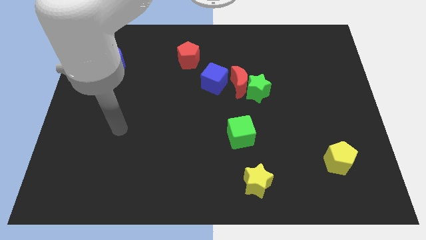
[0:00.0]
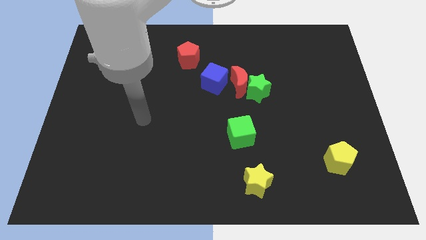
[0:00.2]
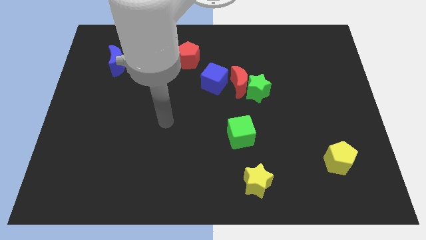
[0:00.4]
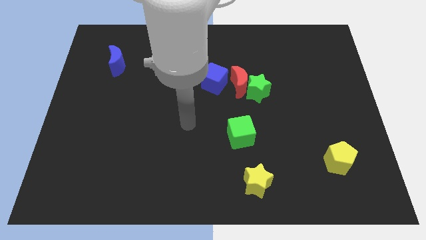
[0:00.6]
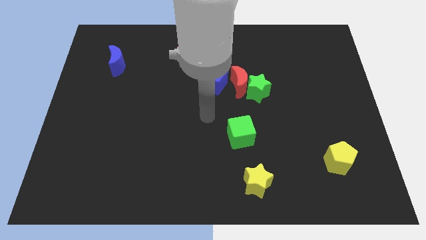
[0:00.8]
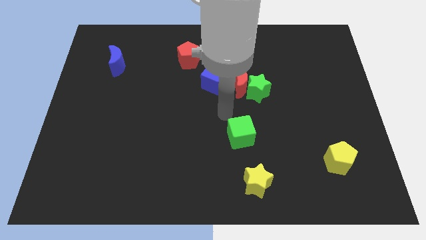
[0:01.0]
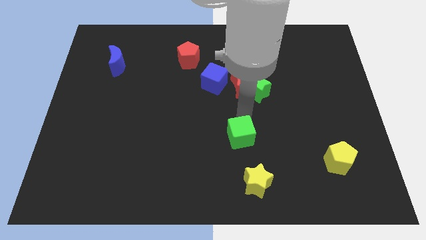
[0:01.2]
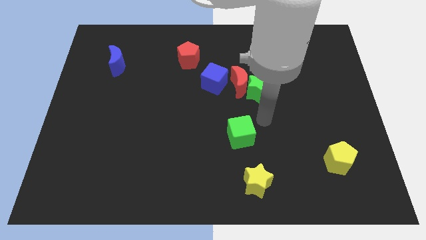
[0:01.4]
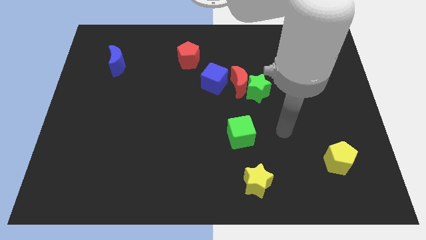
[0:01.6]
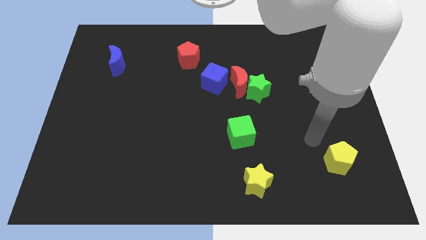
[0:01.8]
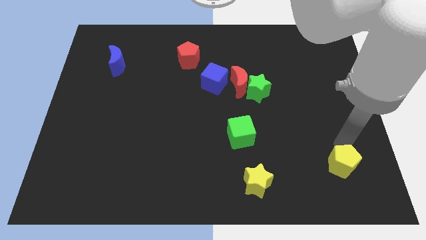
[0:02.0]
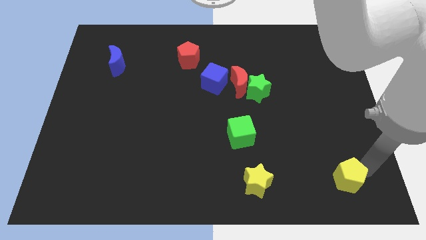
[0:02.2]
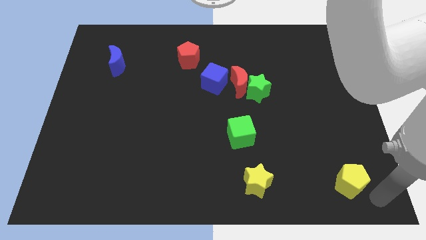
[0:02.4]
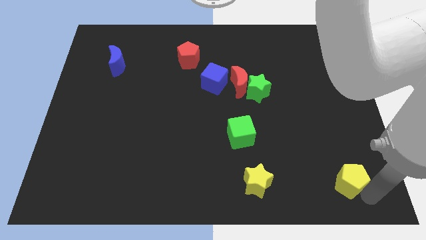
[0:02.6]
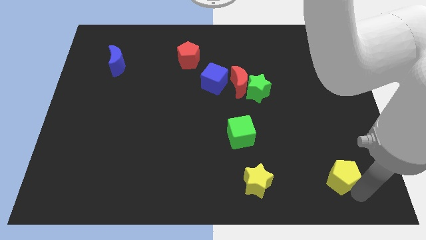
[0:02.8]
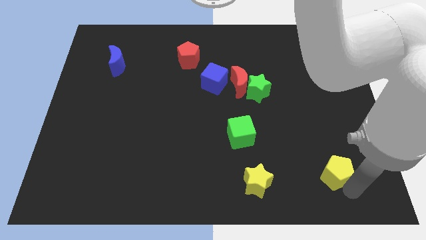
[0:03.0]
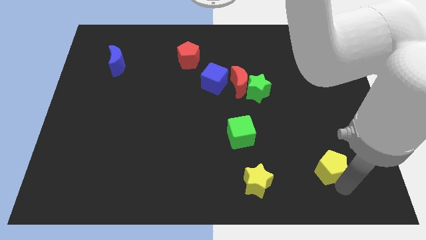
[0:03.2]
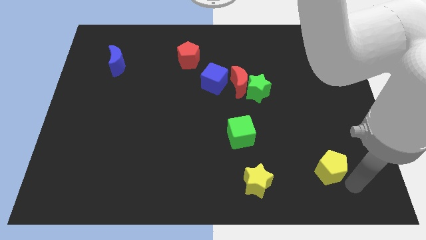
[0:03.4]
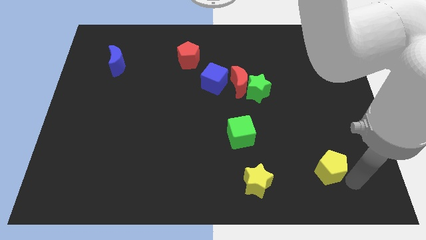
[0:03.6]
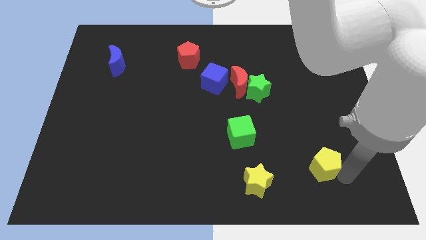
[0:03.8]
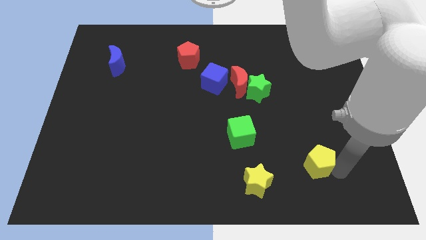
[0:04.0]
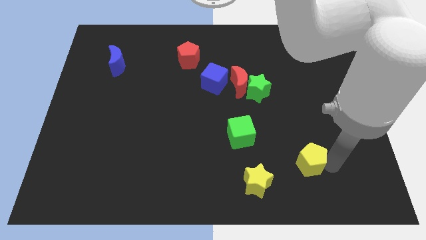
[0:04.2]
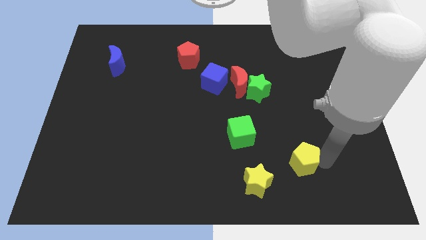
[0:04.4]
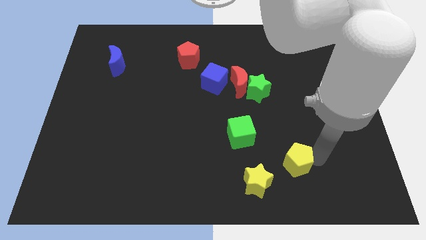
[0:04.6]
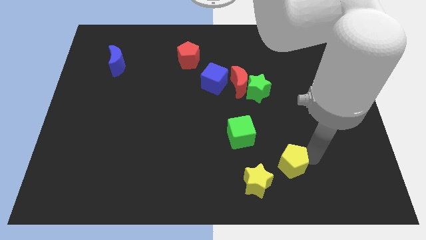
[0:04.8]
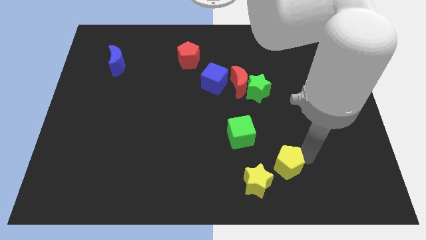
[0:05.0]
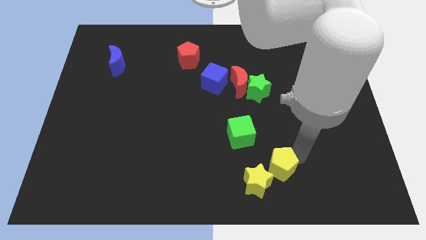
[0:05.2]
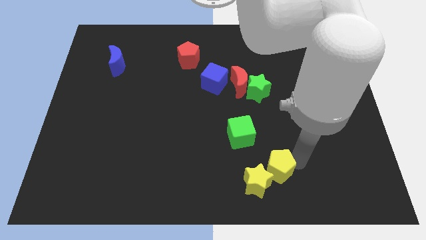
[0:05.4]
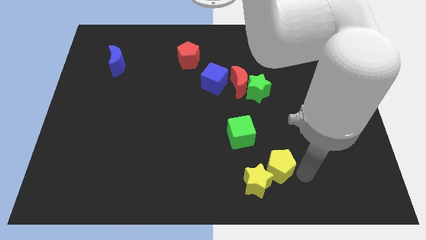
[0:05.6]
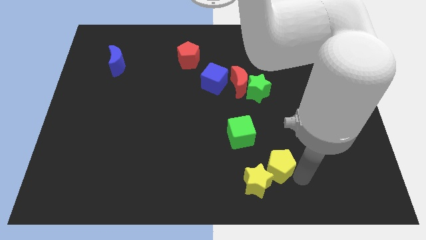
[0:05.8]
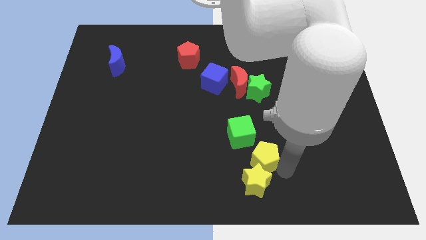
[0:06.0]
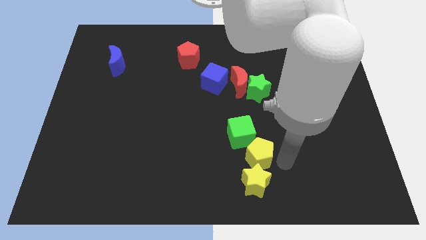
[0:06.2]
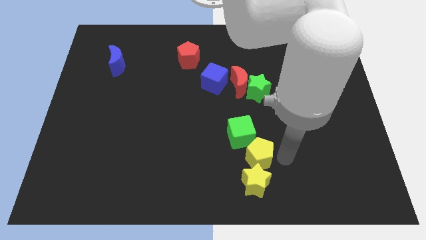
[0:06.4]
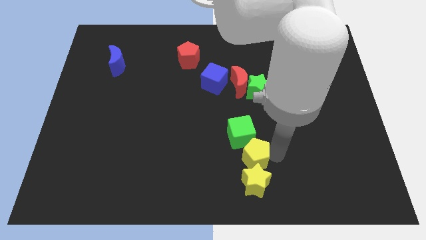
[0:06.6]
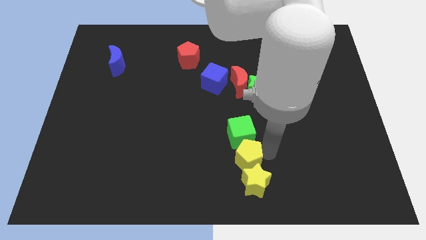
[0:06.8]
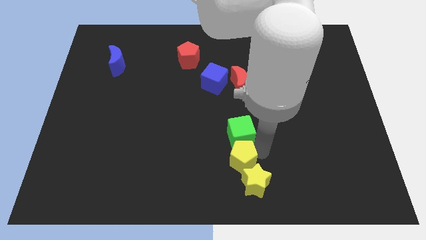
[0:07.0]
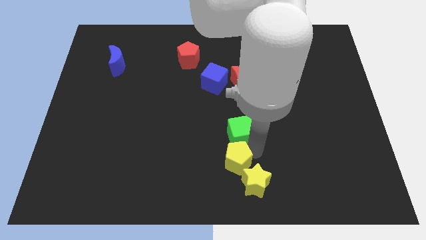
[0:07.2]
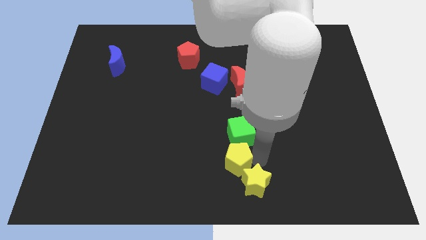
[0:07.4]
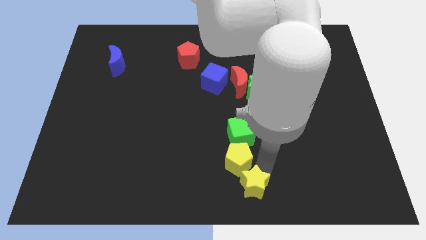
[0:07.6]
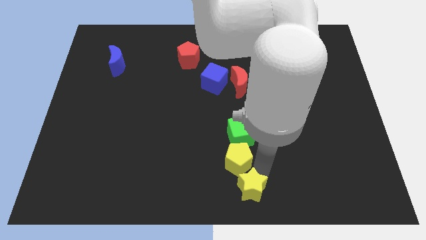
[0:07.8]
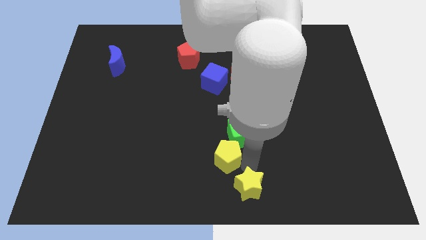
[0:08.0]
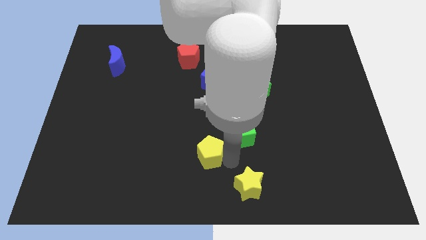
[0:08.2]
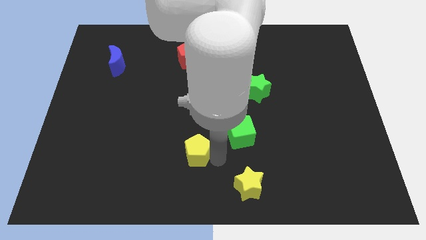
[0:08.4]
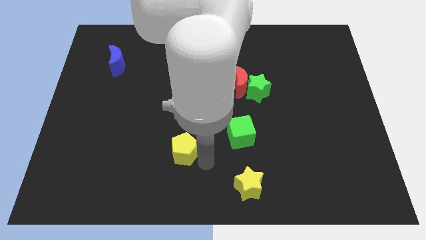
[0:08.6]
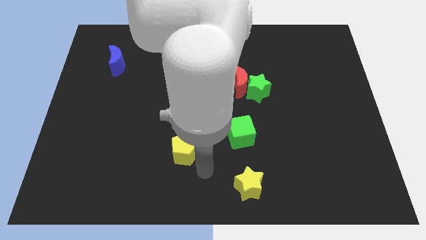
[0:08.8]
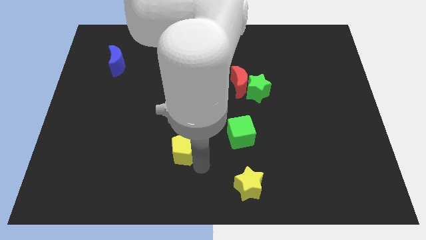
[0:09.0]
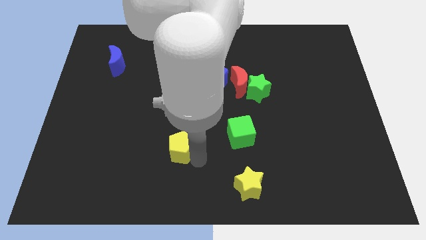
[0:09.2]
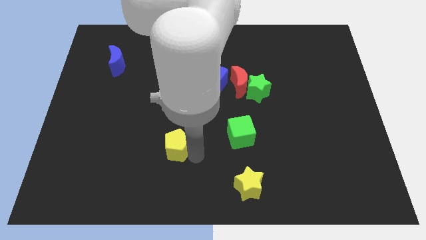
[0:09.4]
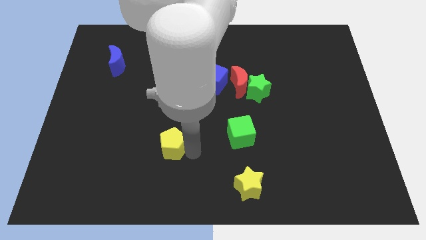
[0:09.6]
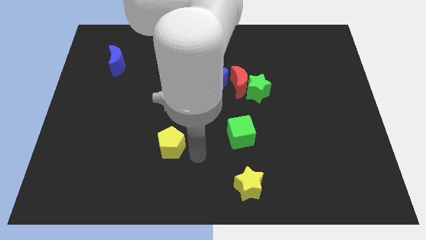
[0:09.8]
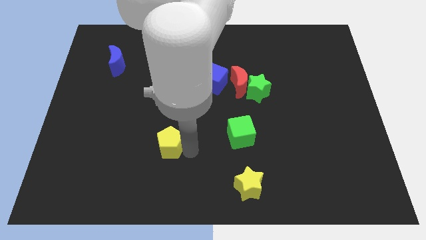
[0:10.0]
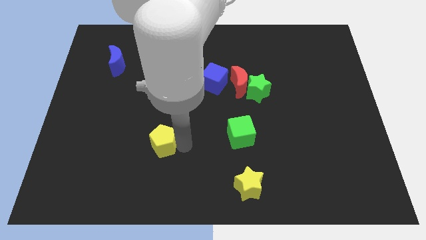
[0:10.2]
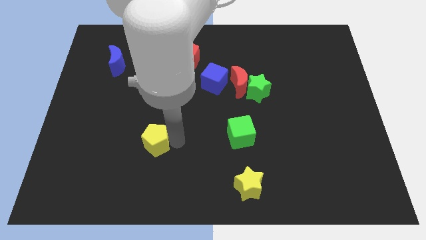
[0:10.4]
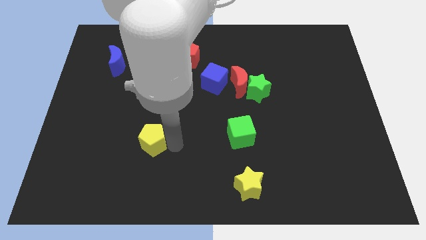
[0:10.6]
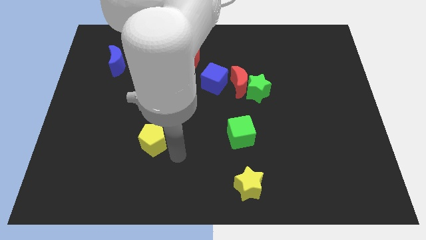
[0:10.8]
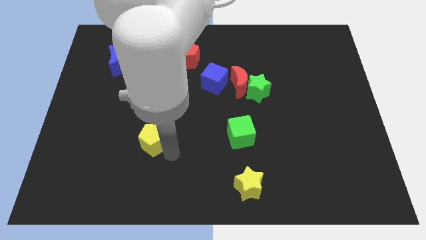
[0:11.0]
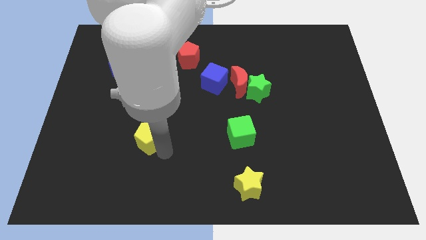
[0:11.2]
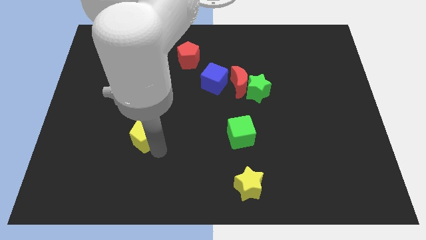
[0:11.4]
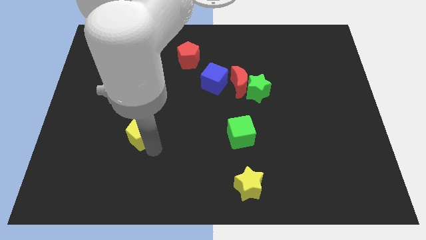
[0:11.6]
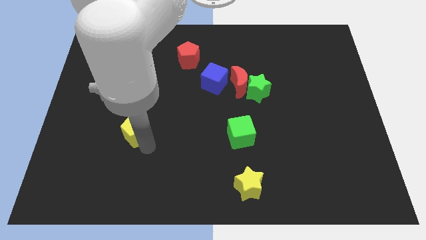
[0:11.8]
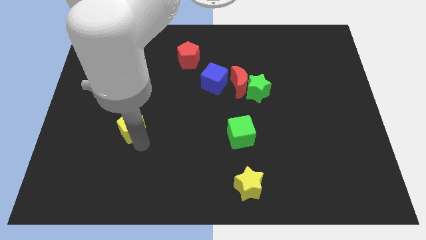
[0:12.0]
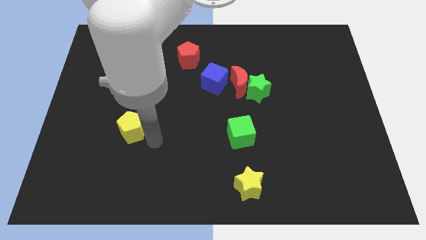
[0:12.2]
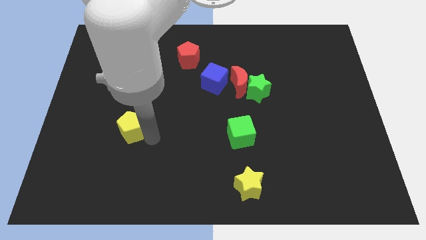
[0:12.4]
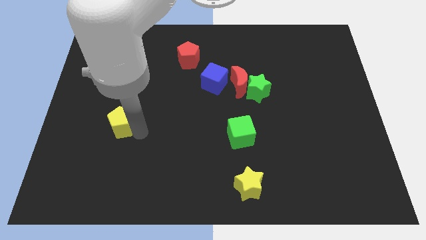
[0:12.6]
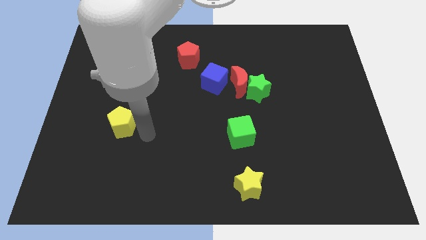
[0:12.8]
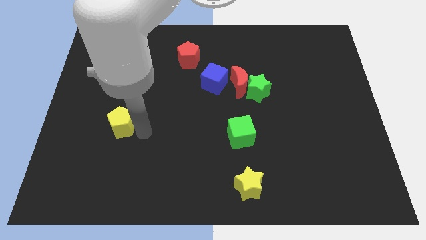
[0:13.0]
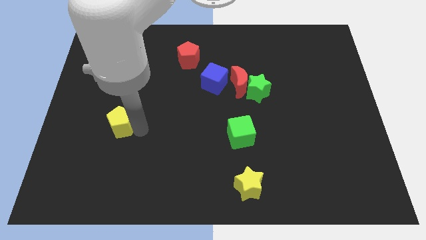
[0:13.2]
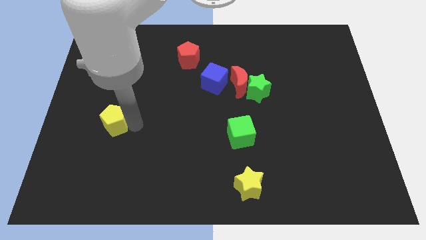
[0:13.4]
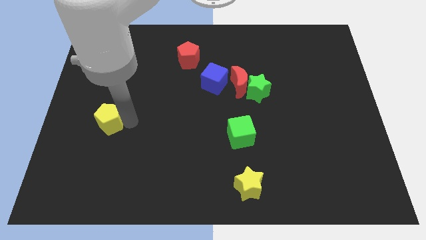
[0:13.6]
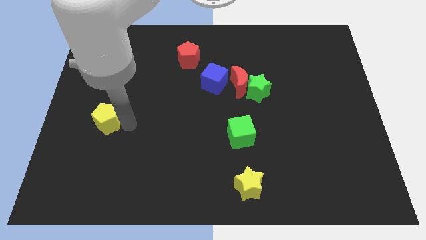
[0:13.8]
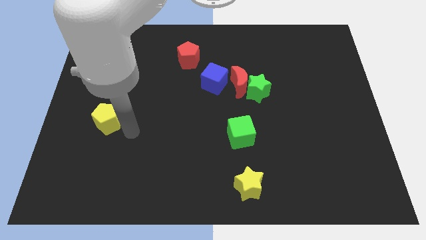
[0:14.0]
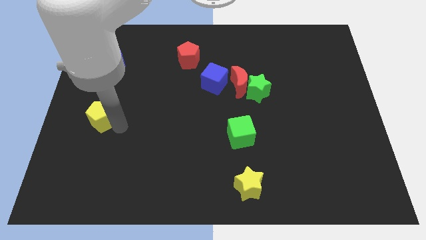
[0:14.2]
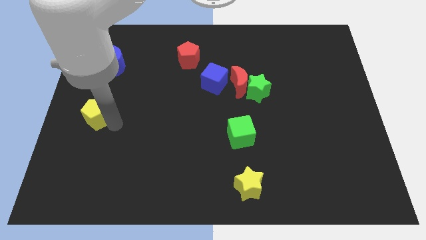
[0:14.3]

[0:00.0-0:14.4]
move the yellow pentagon to the center left
